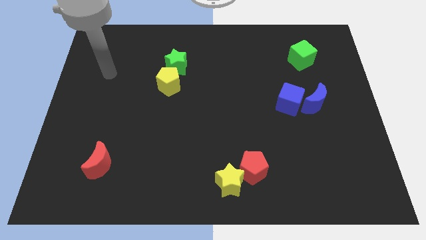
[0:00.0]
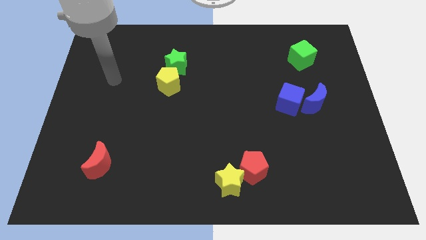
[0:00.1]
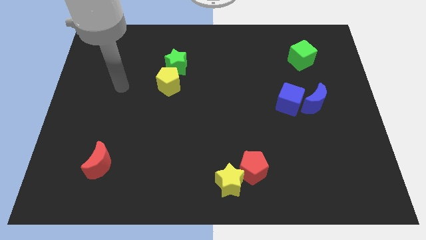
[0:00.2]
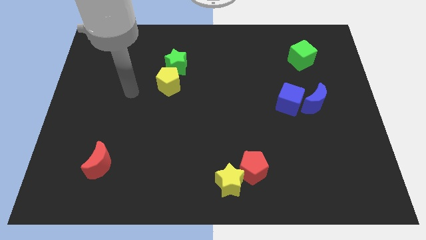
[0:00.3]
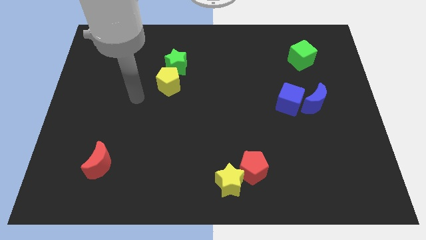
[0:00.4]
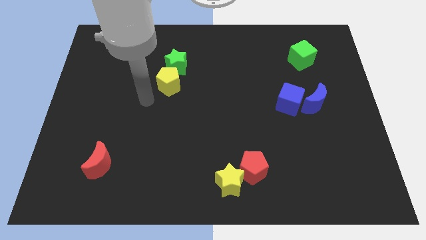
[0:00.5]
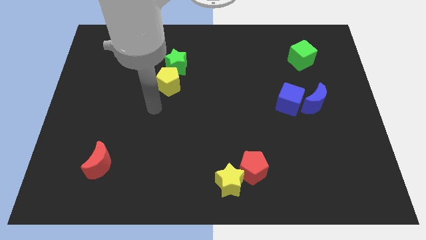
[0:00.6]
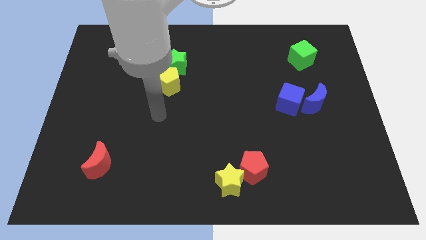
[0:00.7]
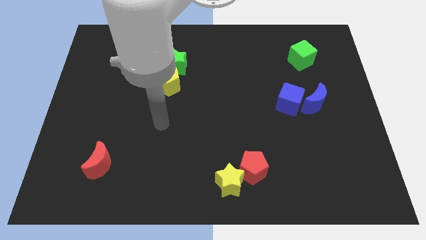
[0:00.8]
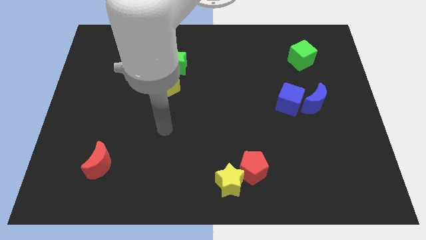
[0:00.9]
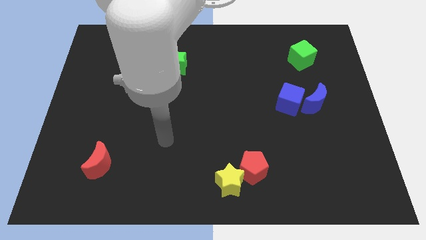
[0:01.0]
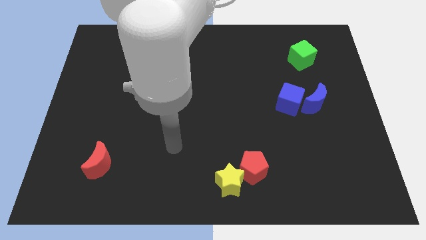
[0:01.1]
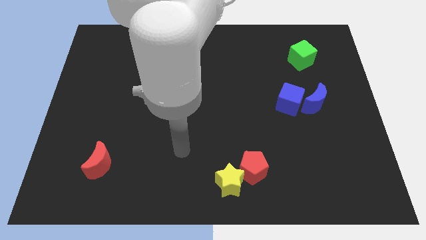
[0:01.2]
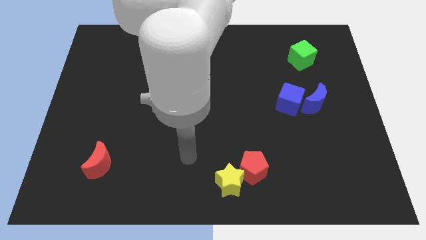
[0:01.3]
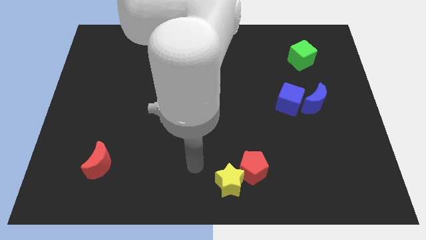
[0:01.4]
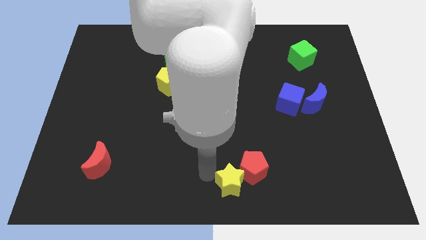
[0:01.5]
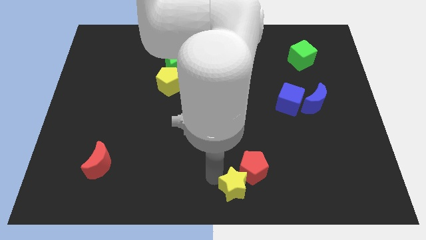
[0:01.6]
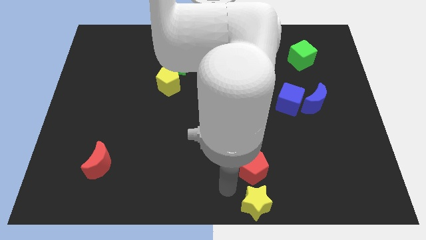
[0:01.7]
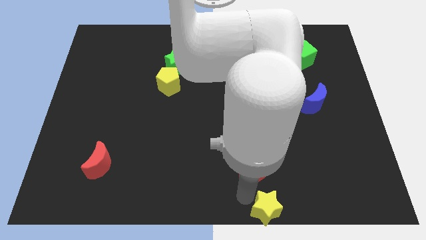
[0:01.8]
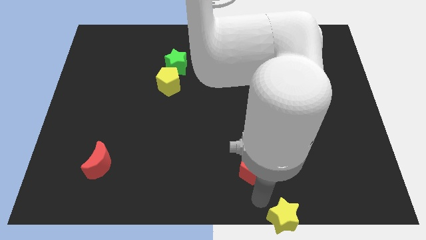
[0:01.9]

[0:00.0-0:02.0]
pull the red pentagon apart from the yellow star

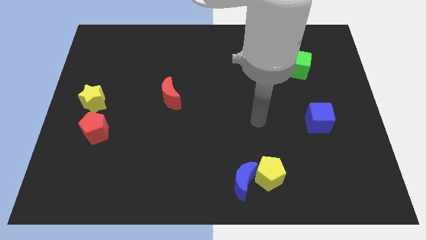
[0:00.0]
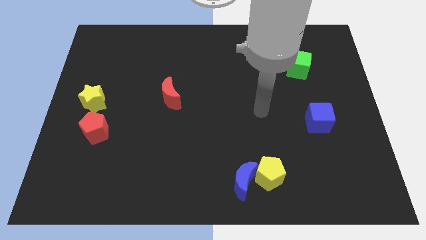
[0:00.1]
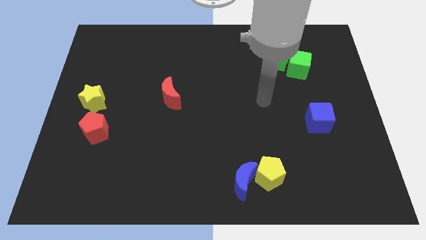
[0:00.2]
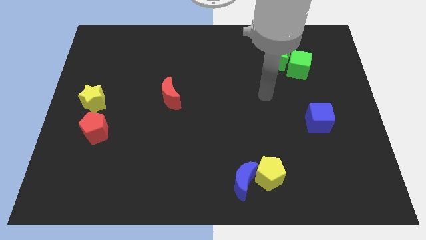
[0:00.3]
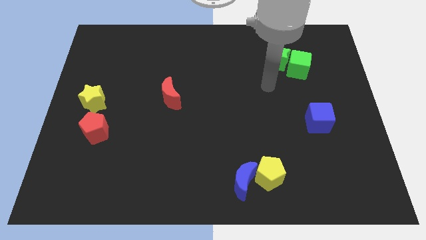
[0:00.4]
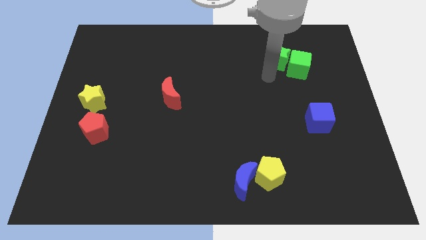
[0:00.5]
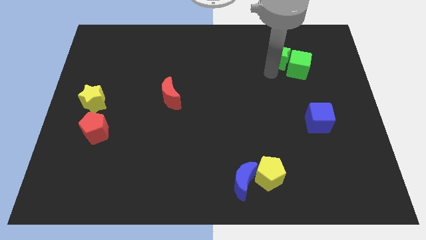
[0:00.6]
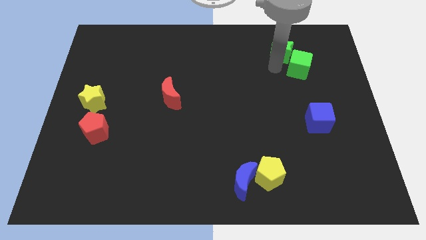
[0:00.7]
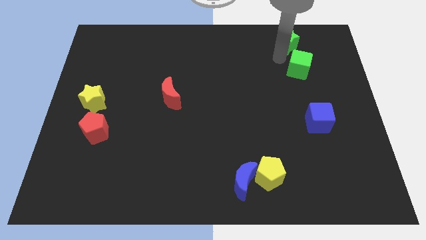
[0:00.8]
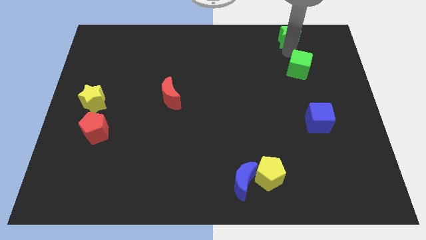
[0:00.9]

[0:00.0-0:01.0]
move the green cube away from the green star

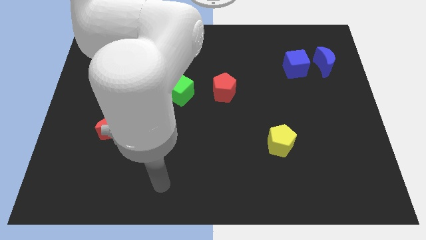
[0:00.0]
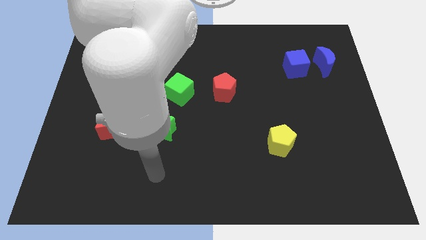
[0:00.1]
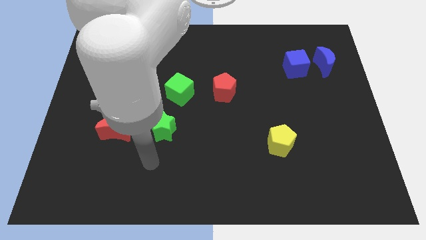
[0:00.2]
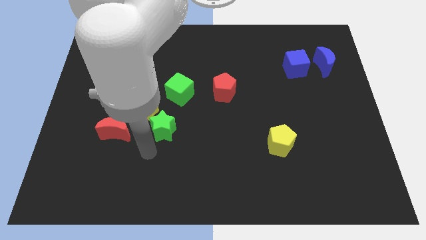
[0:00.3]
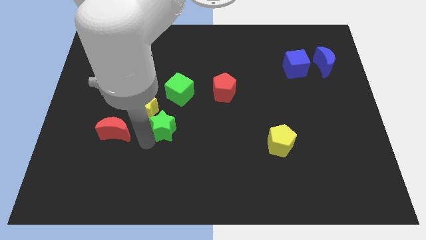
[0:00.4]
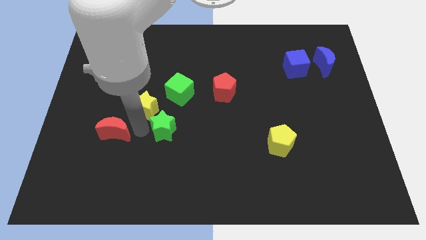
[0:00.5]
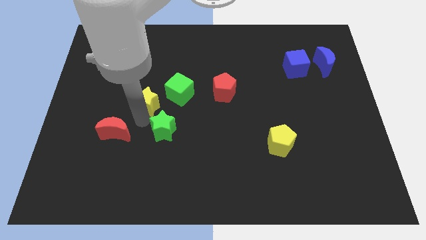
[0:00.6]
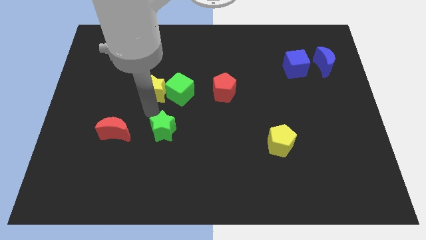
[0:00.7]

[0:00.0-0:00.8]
move the green star away from the yellow star

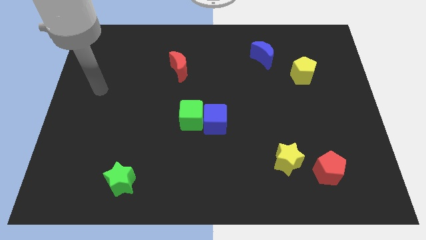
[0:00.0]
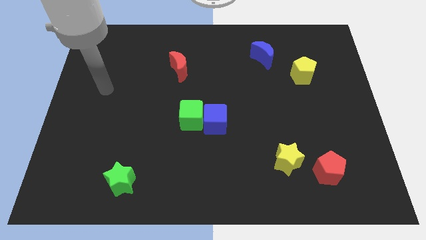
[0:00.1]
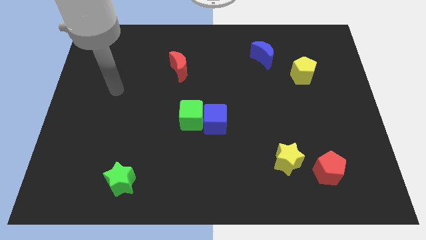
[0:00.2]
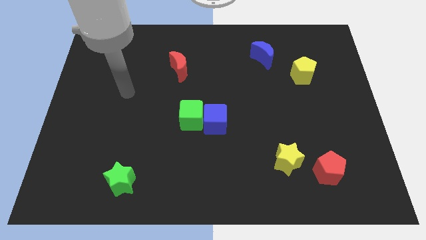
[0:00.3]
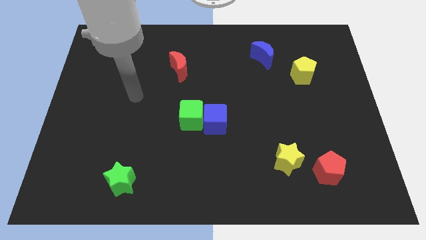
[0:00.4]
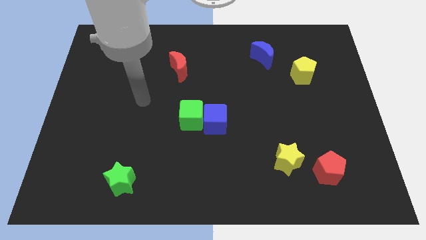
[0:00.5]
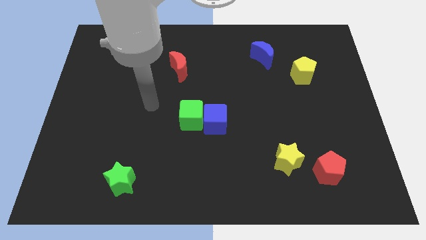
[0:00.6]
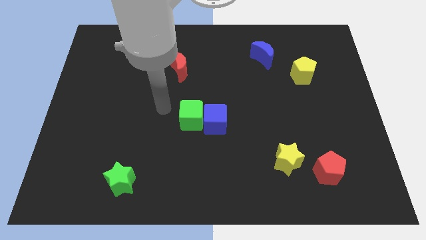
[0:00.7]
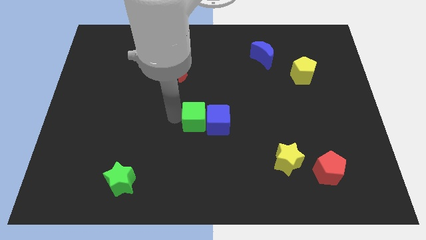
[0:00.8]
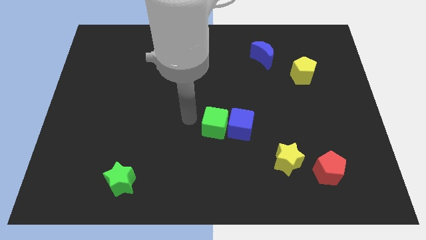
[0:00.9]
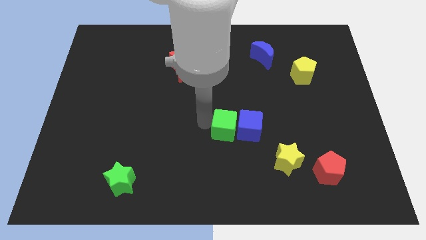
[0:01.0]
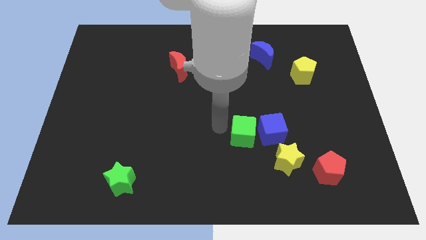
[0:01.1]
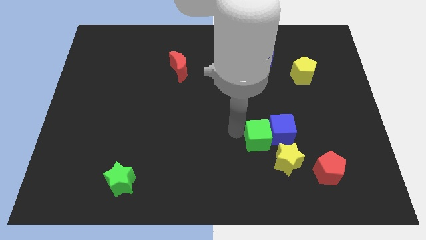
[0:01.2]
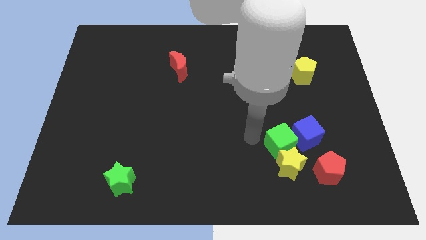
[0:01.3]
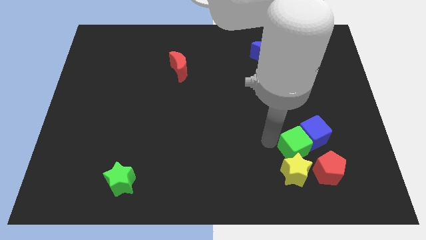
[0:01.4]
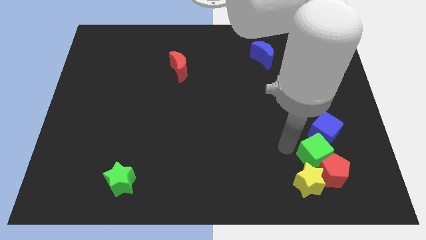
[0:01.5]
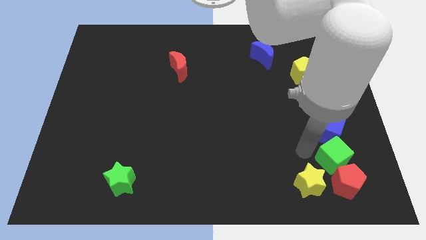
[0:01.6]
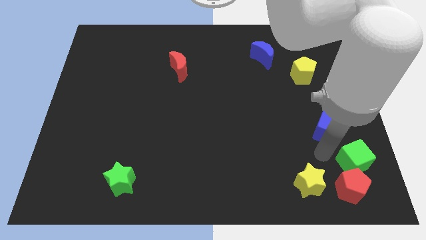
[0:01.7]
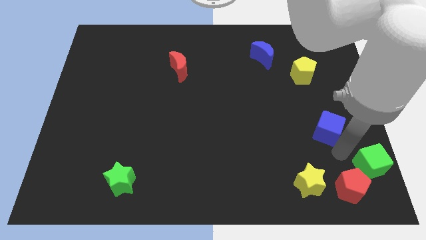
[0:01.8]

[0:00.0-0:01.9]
pull the blue cube apart from the green cube

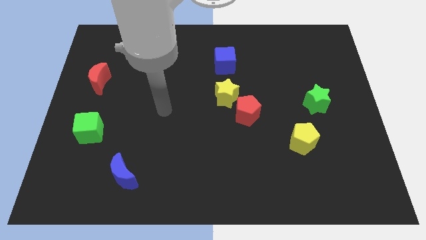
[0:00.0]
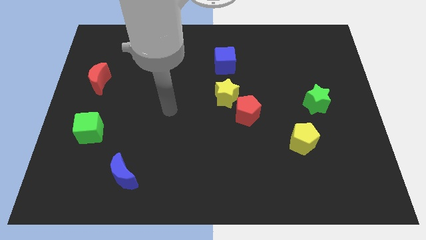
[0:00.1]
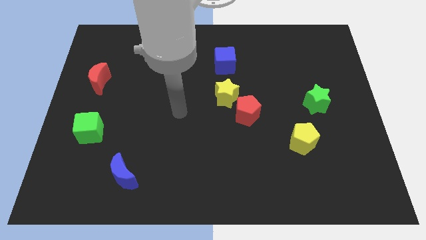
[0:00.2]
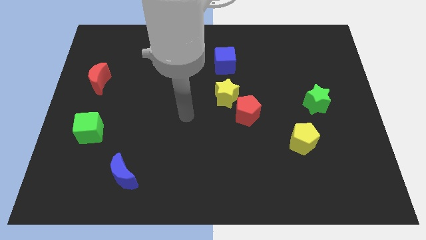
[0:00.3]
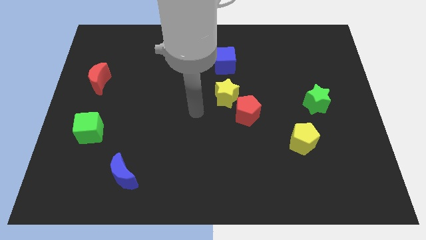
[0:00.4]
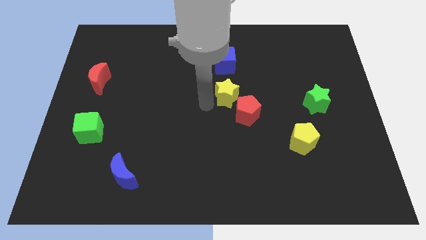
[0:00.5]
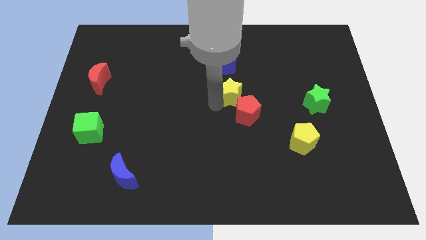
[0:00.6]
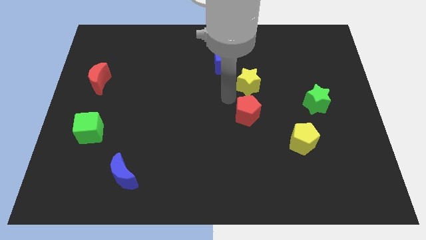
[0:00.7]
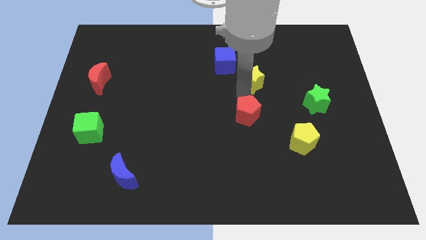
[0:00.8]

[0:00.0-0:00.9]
separate the red pentagon from the yellow star

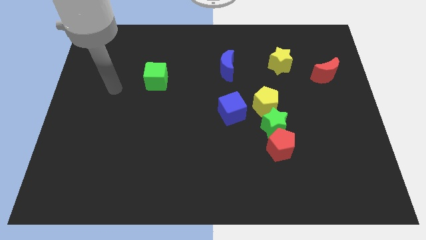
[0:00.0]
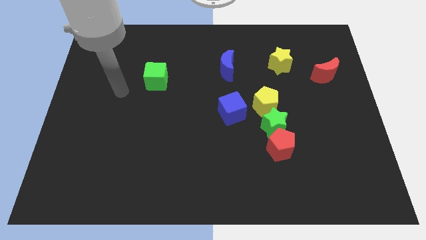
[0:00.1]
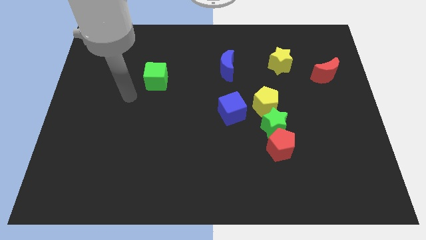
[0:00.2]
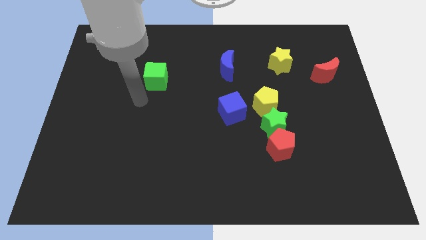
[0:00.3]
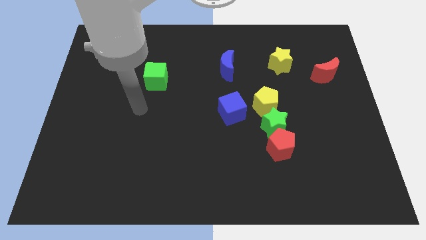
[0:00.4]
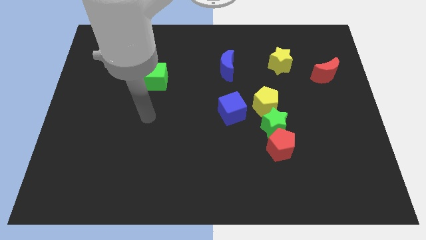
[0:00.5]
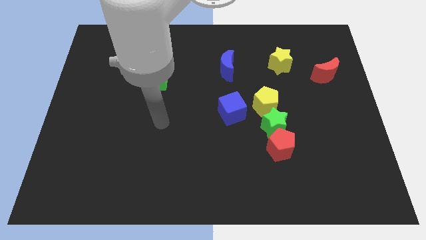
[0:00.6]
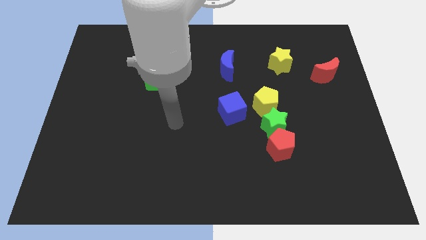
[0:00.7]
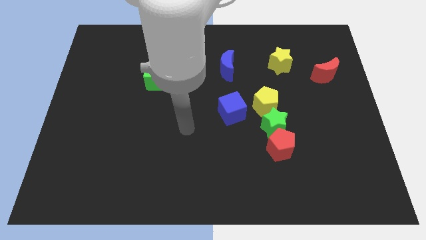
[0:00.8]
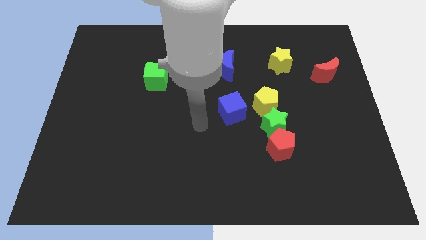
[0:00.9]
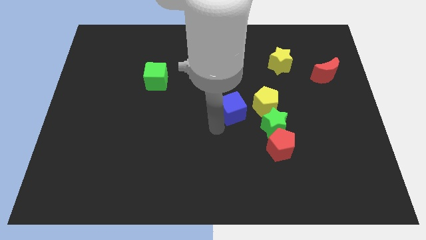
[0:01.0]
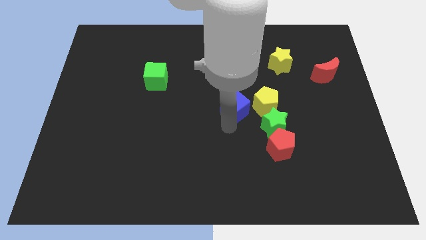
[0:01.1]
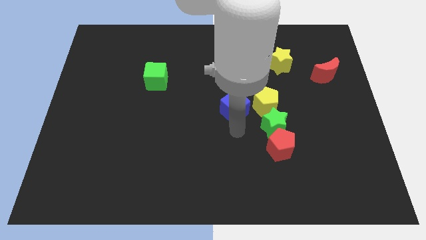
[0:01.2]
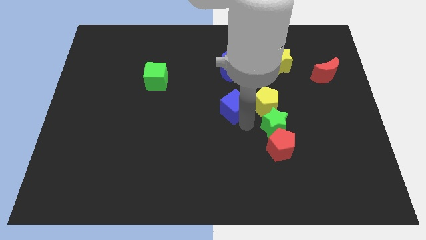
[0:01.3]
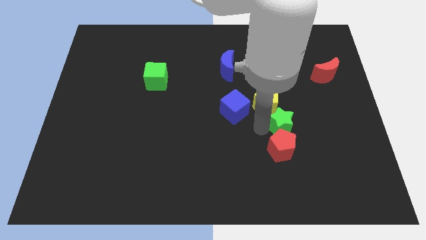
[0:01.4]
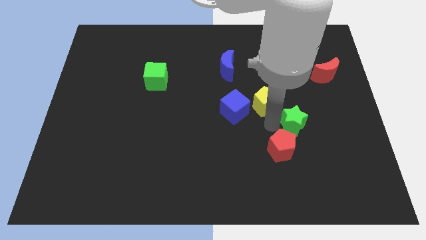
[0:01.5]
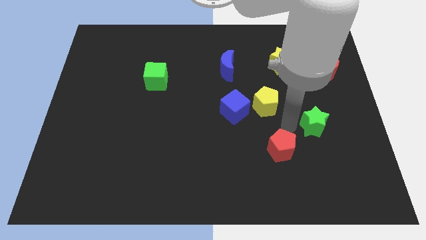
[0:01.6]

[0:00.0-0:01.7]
separate the red pentagon from the green star

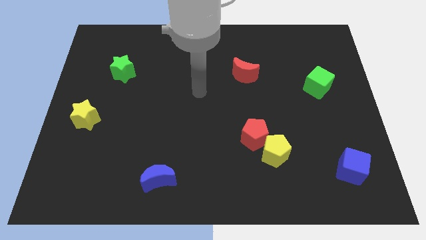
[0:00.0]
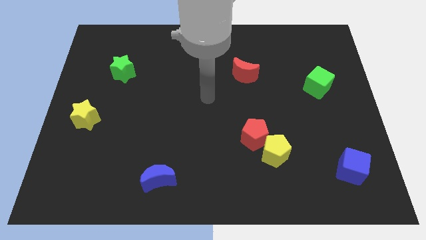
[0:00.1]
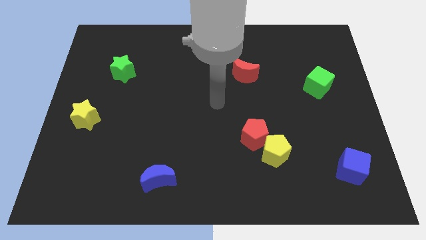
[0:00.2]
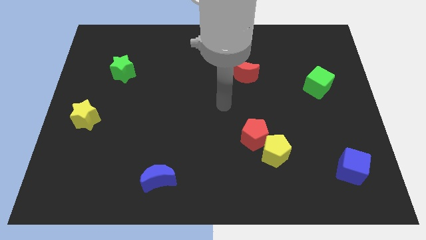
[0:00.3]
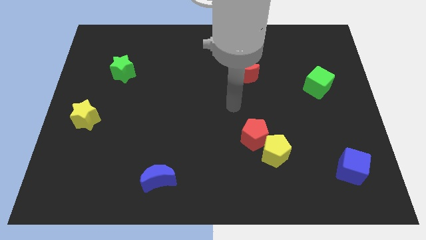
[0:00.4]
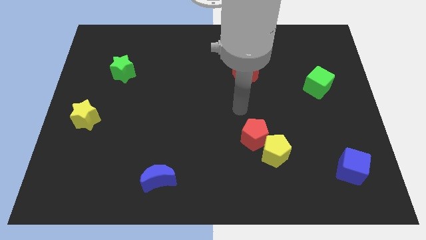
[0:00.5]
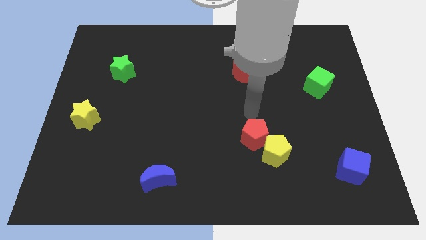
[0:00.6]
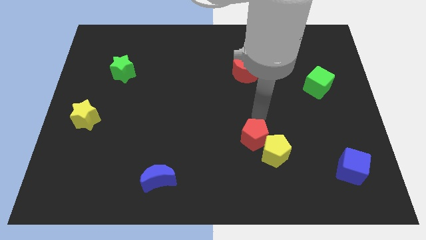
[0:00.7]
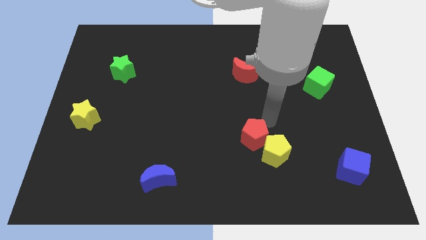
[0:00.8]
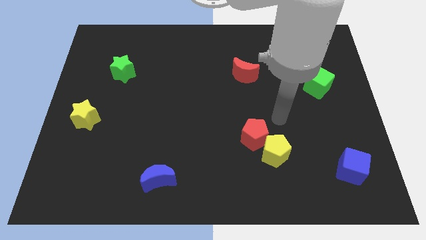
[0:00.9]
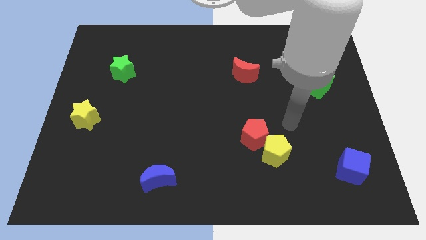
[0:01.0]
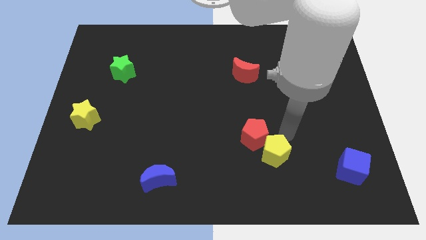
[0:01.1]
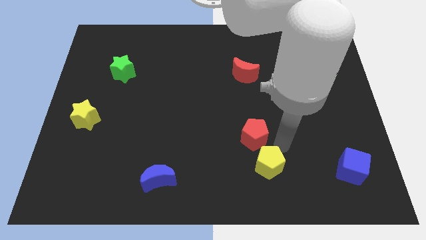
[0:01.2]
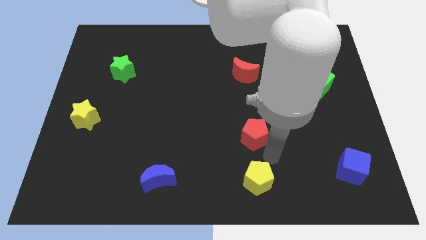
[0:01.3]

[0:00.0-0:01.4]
separate the red pentagon from the yellow pentagon
